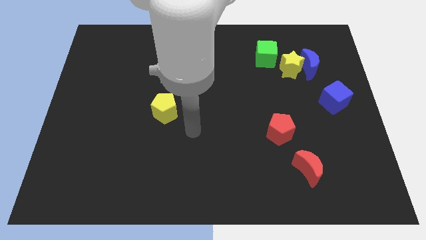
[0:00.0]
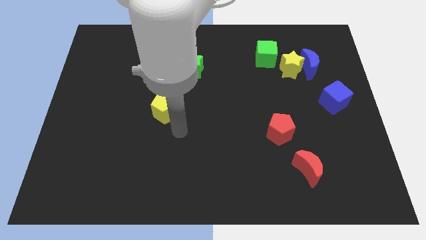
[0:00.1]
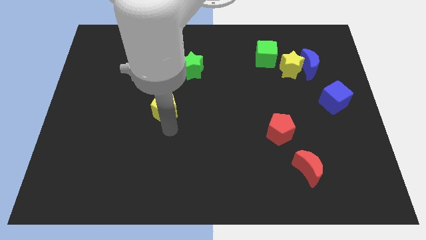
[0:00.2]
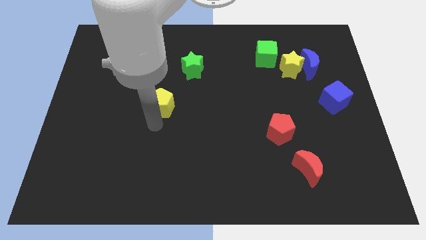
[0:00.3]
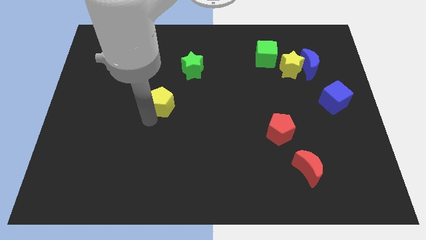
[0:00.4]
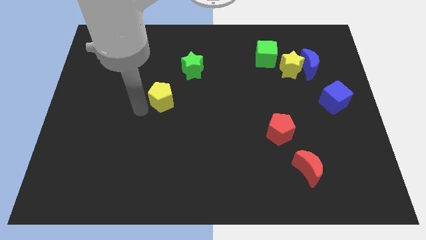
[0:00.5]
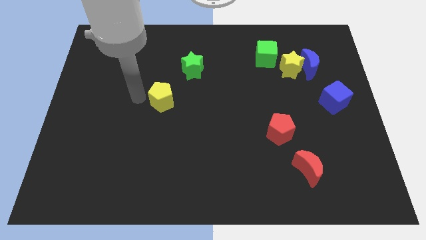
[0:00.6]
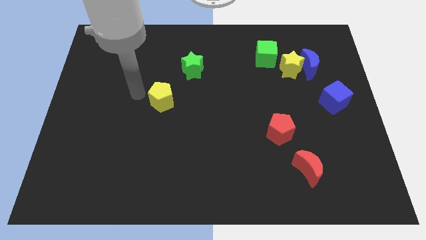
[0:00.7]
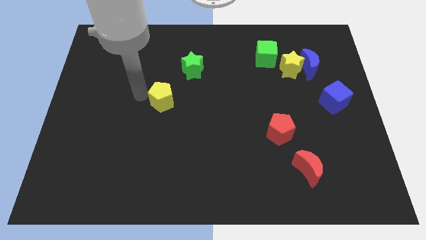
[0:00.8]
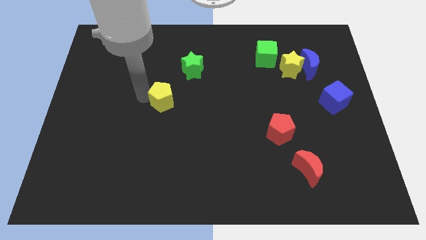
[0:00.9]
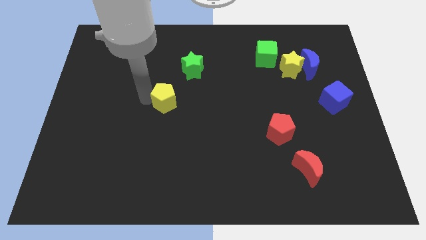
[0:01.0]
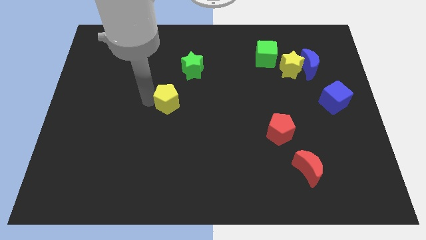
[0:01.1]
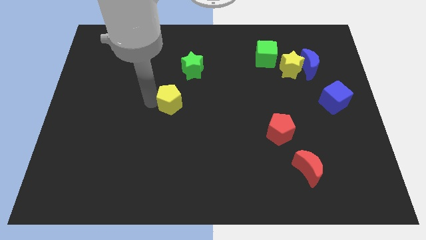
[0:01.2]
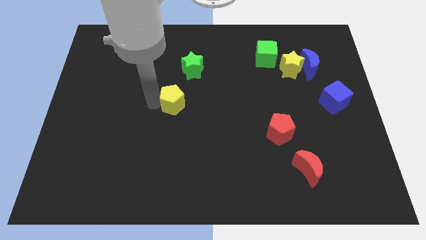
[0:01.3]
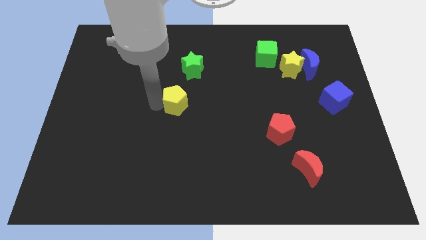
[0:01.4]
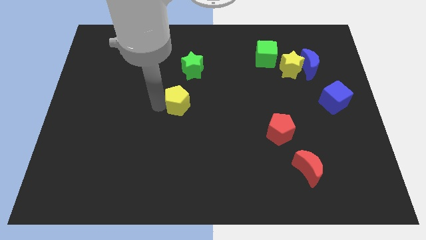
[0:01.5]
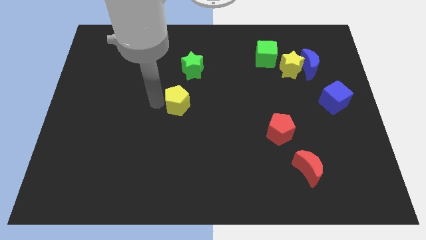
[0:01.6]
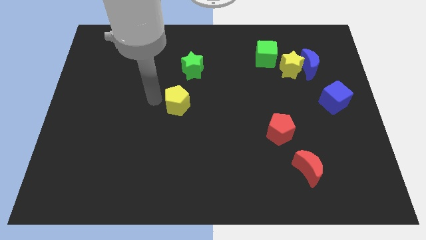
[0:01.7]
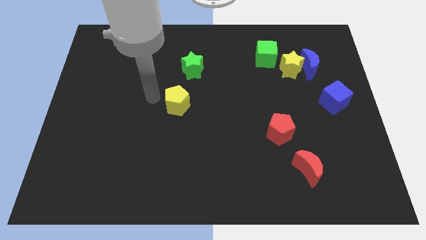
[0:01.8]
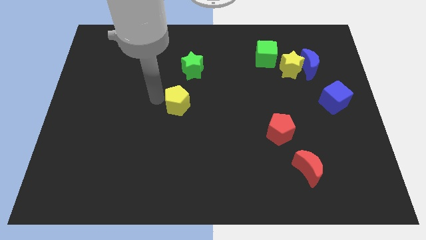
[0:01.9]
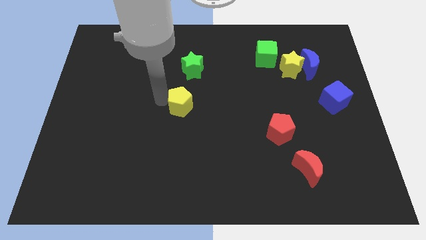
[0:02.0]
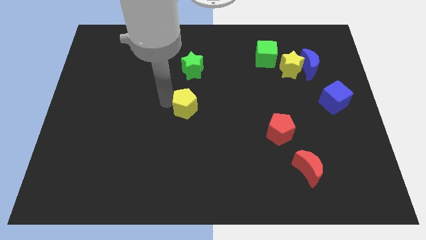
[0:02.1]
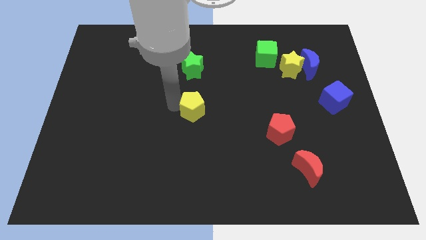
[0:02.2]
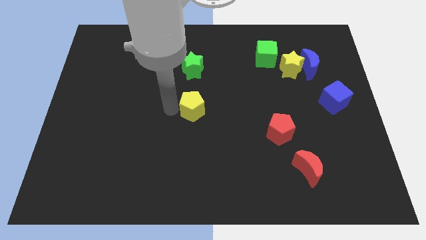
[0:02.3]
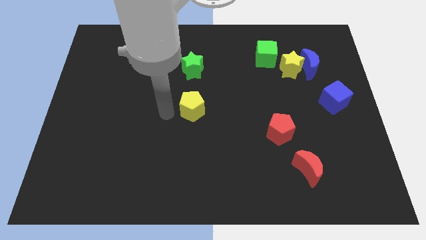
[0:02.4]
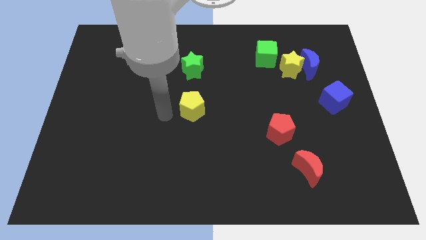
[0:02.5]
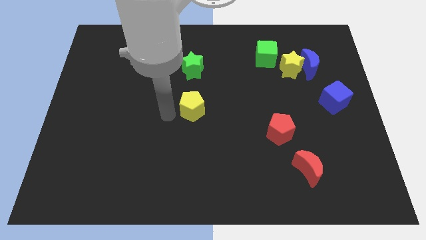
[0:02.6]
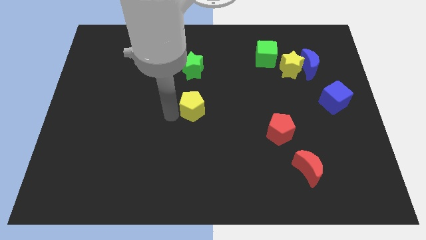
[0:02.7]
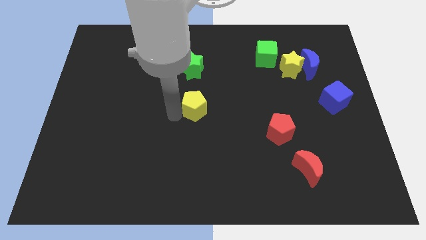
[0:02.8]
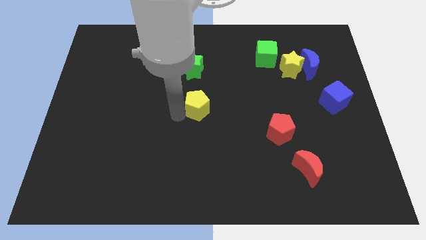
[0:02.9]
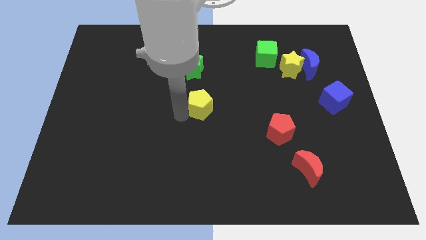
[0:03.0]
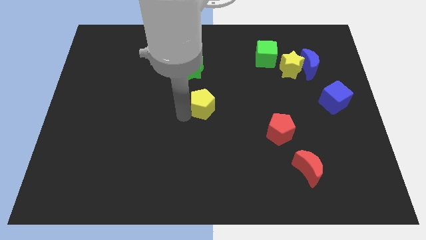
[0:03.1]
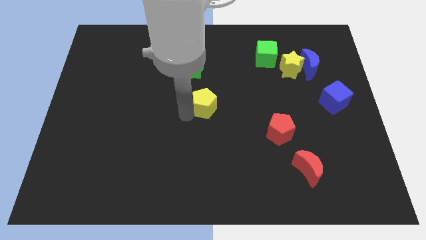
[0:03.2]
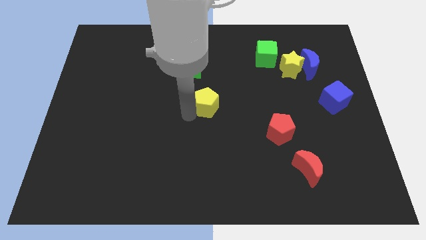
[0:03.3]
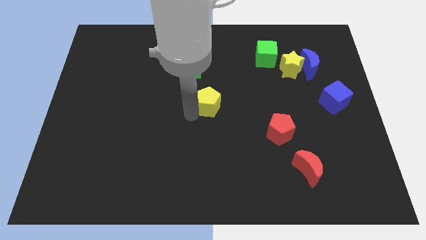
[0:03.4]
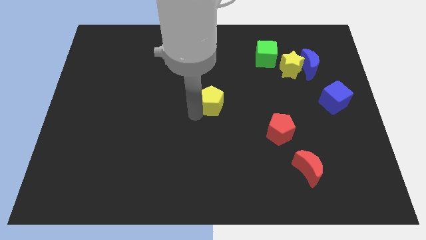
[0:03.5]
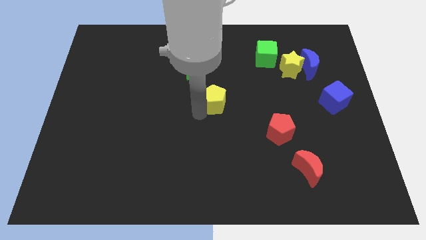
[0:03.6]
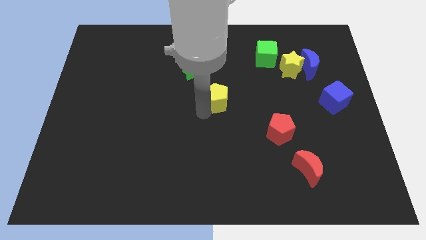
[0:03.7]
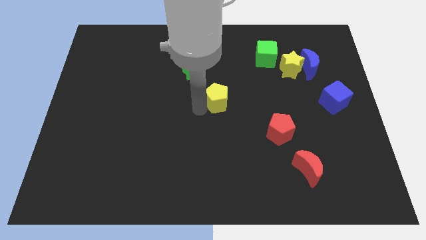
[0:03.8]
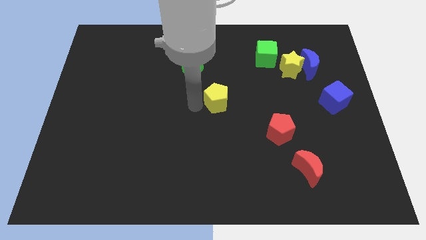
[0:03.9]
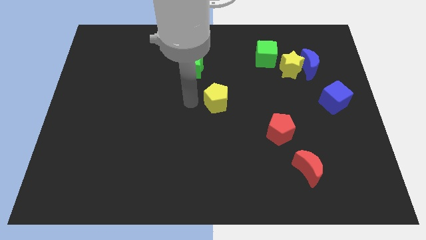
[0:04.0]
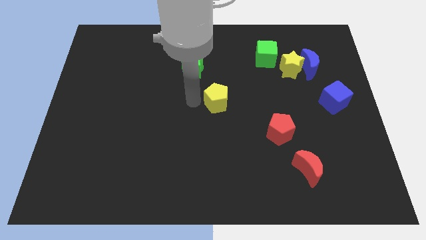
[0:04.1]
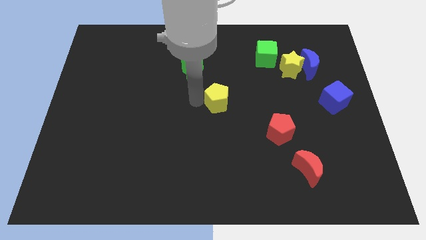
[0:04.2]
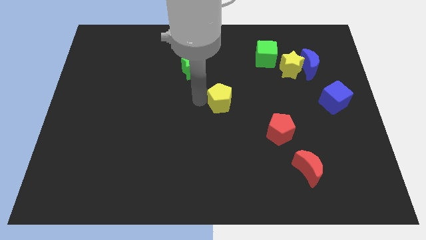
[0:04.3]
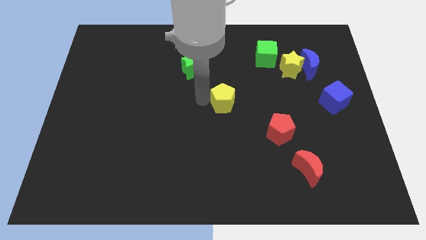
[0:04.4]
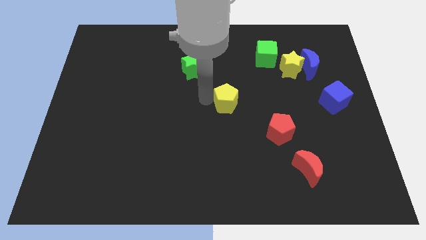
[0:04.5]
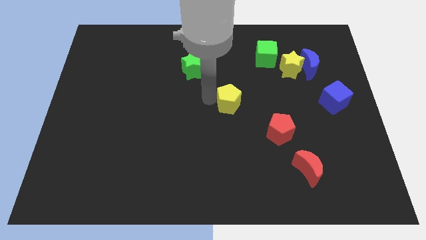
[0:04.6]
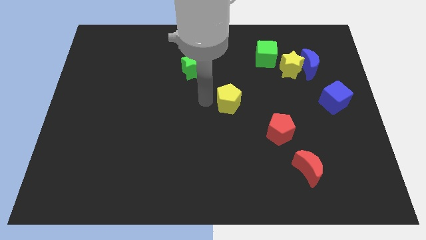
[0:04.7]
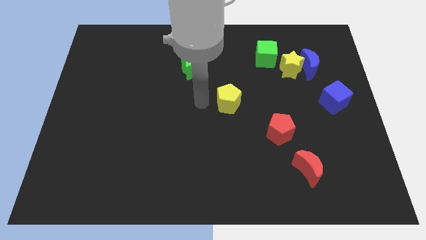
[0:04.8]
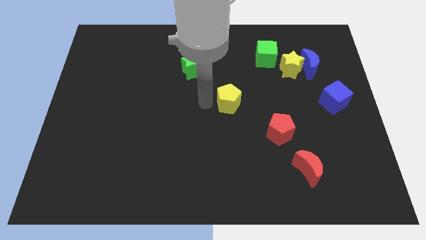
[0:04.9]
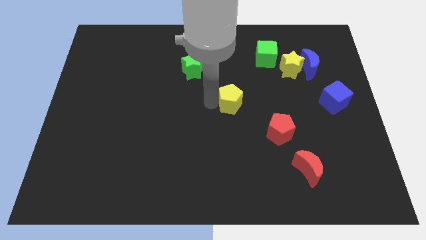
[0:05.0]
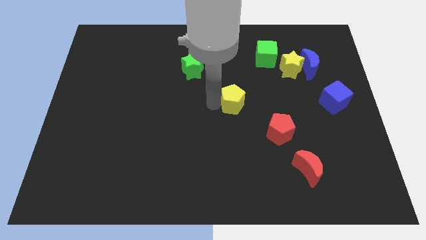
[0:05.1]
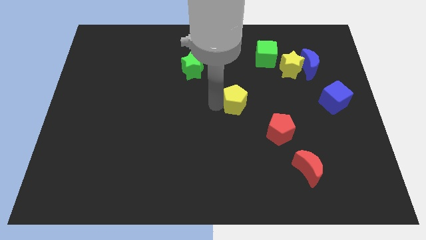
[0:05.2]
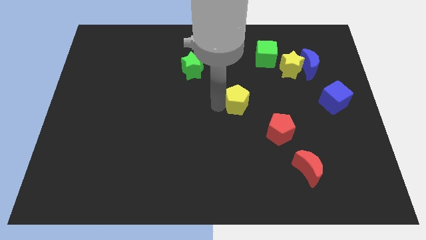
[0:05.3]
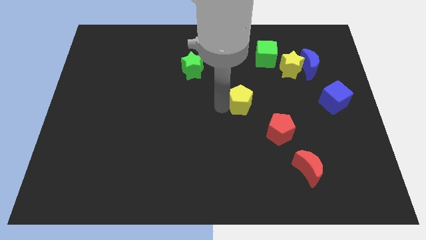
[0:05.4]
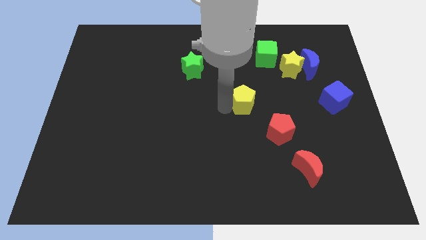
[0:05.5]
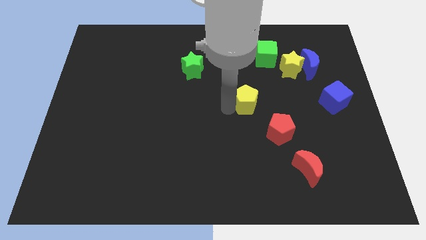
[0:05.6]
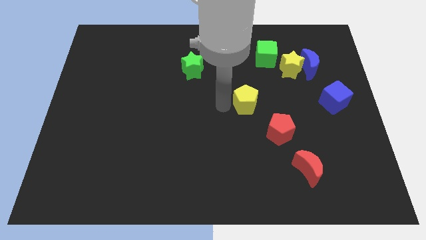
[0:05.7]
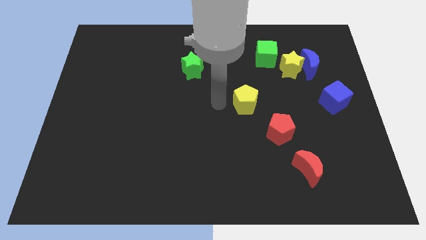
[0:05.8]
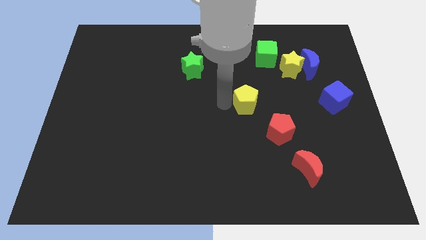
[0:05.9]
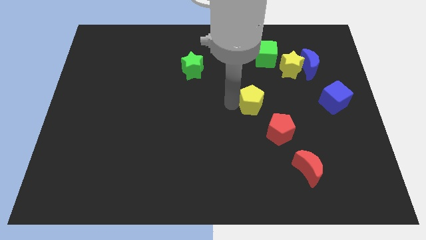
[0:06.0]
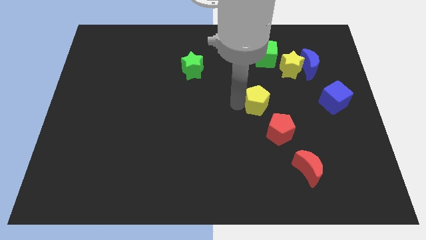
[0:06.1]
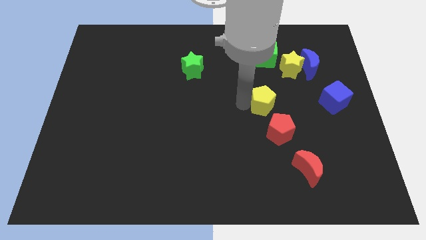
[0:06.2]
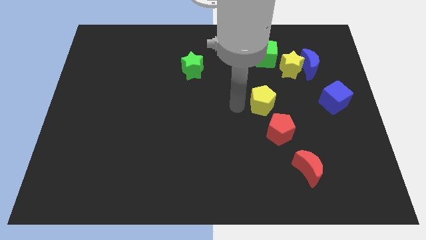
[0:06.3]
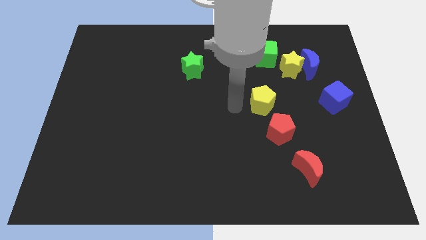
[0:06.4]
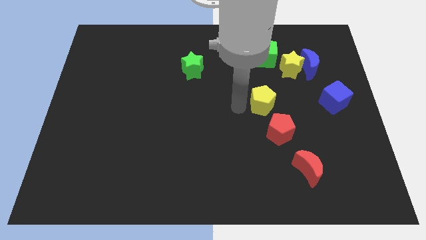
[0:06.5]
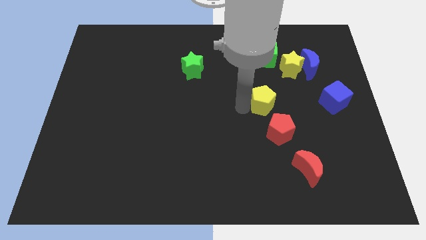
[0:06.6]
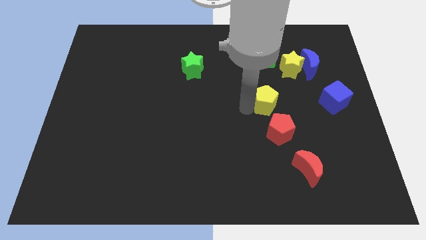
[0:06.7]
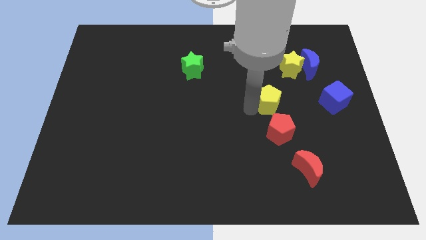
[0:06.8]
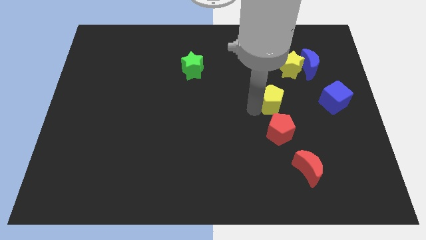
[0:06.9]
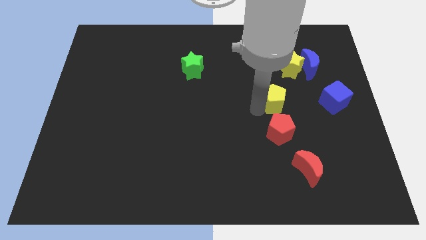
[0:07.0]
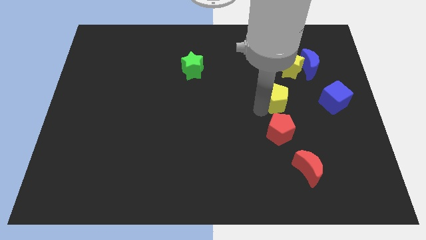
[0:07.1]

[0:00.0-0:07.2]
move the yellow pentagon to the bottom side of the yellow star

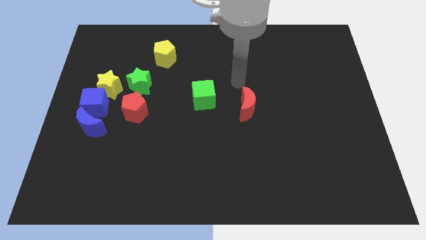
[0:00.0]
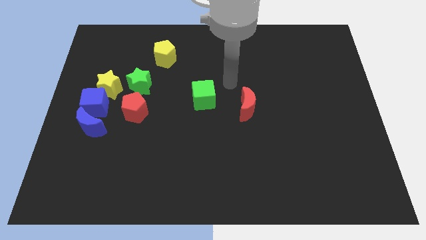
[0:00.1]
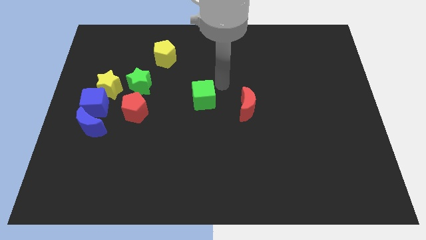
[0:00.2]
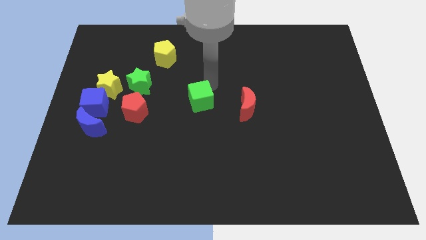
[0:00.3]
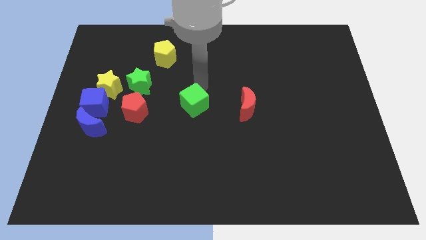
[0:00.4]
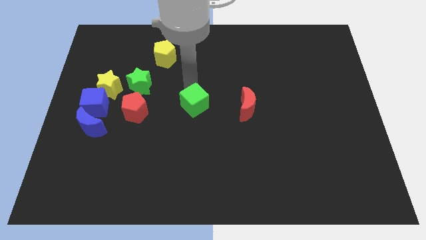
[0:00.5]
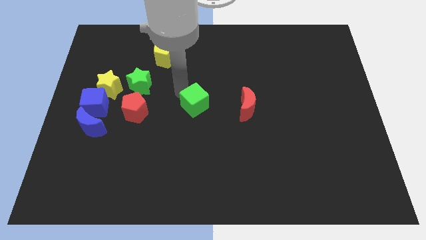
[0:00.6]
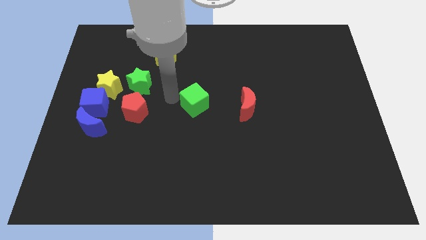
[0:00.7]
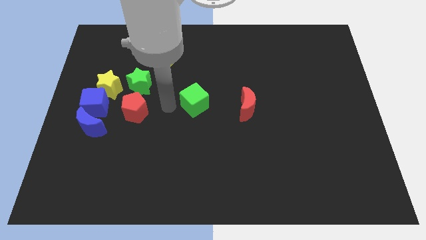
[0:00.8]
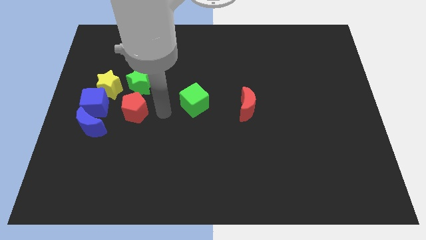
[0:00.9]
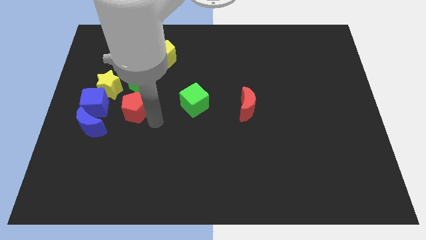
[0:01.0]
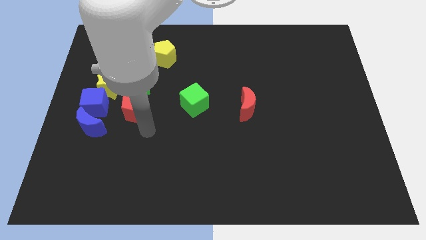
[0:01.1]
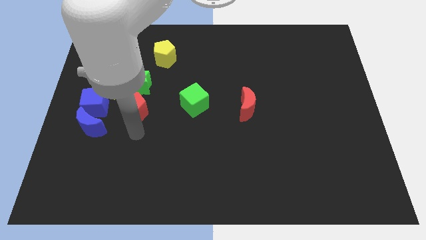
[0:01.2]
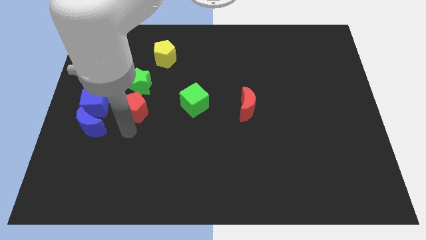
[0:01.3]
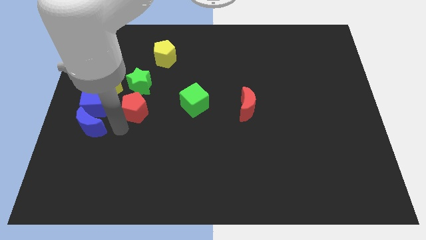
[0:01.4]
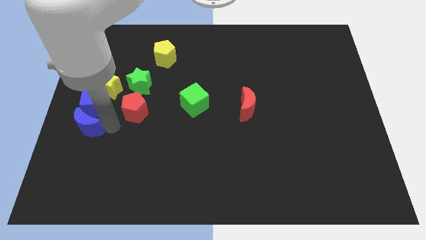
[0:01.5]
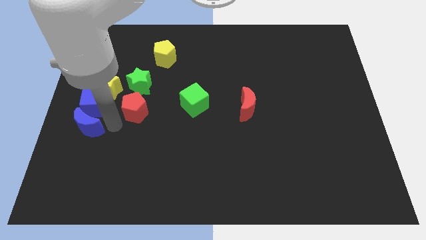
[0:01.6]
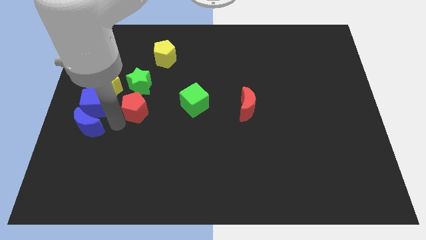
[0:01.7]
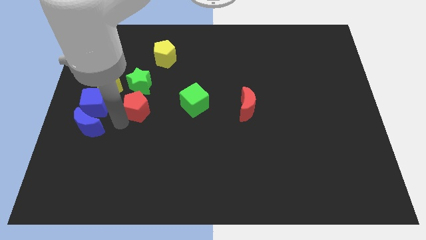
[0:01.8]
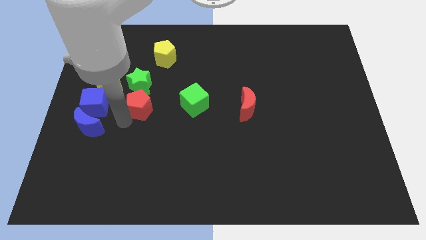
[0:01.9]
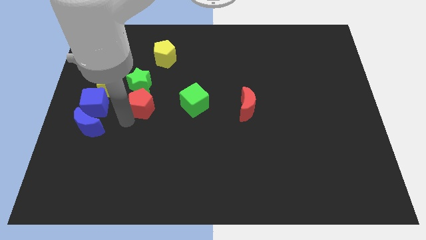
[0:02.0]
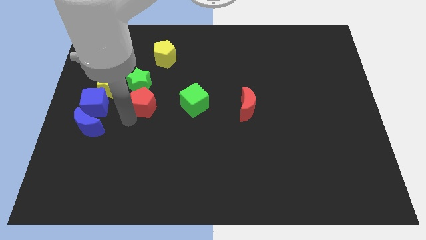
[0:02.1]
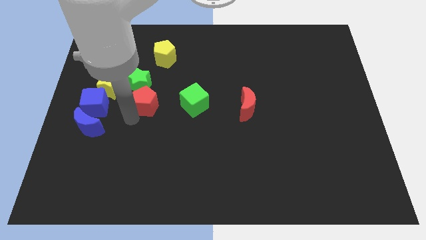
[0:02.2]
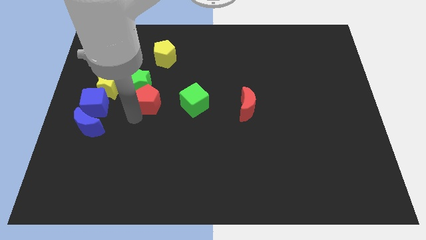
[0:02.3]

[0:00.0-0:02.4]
slide the red pentagon to the bottom side of the yellow pentagon
